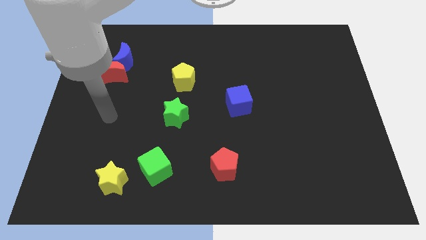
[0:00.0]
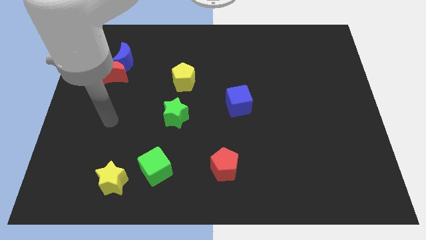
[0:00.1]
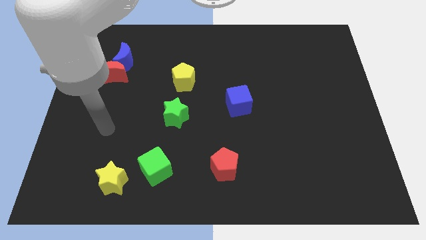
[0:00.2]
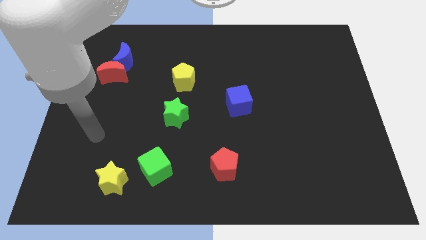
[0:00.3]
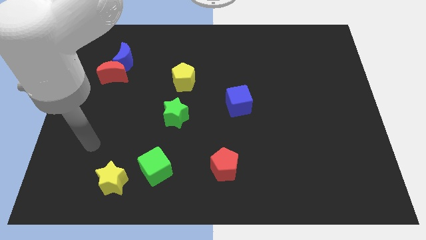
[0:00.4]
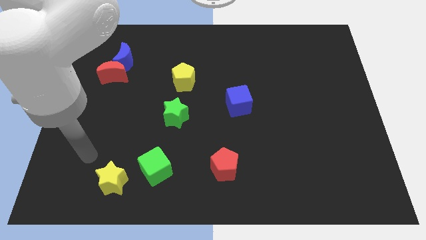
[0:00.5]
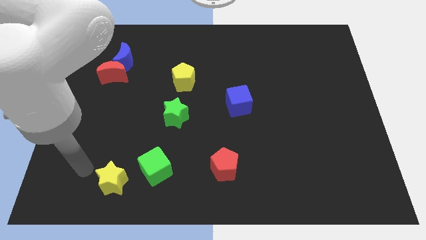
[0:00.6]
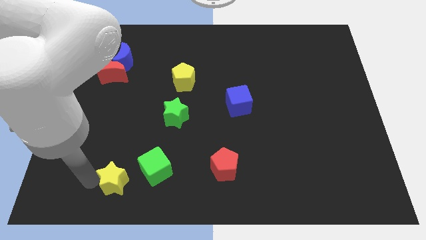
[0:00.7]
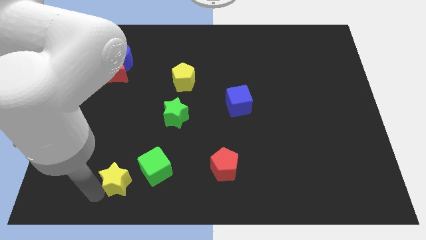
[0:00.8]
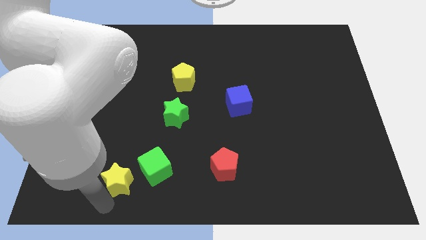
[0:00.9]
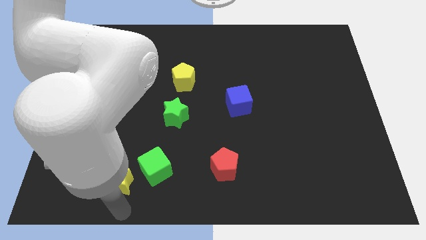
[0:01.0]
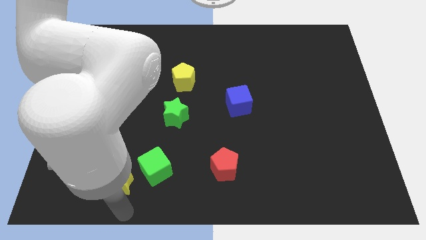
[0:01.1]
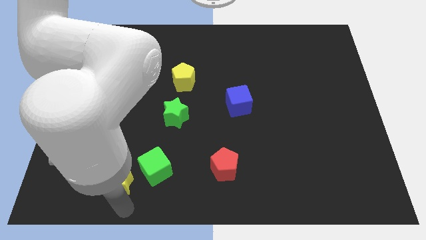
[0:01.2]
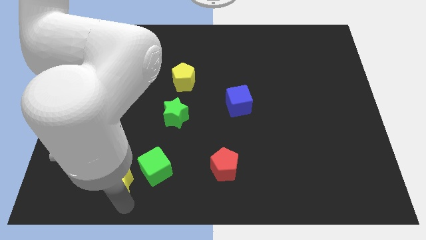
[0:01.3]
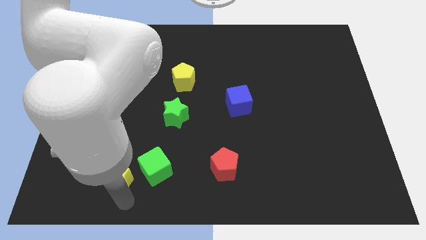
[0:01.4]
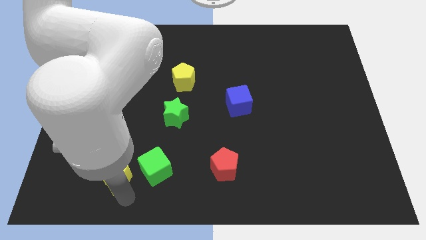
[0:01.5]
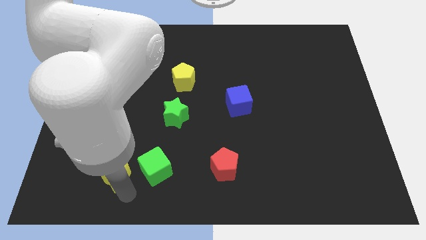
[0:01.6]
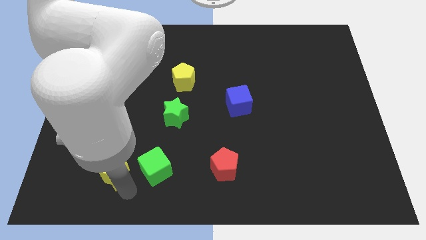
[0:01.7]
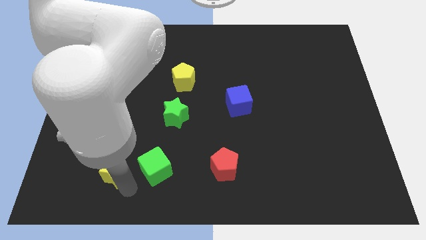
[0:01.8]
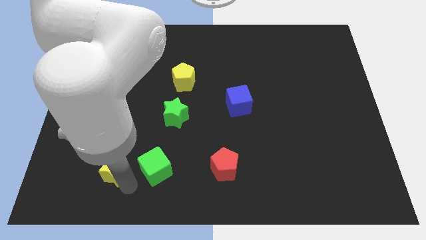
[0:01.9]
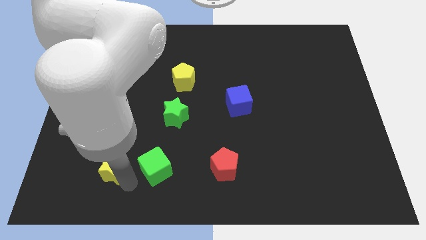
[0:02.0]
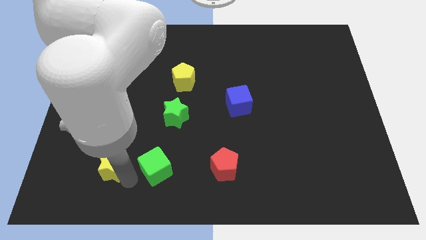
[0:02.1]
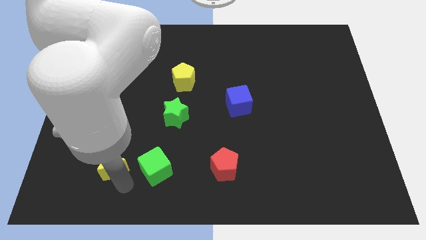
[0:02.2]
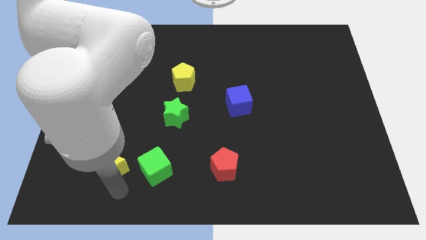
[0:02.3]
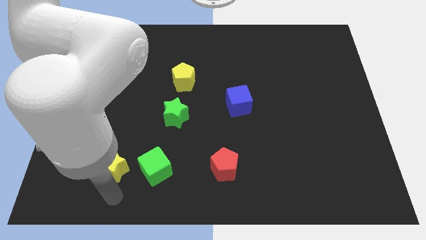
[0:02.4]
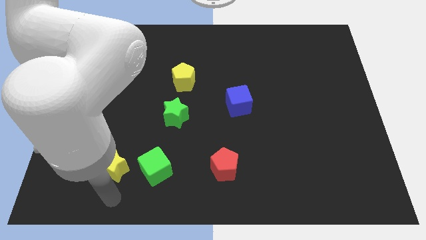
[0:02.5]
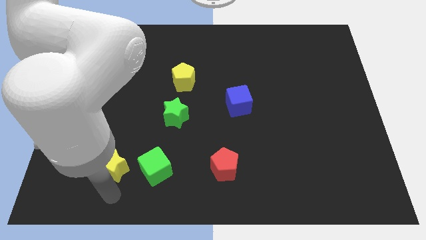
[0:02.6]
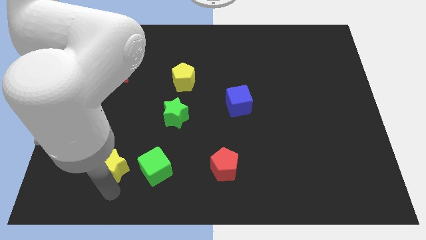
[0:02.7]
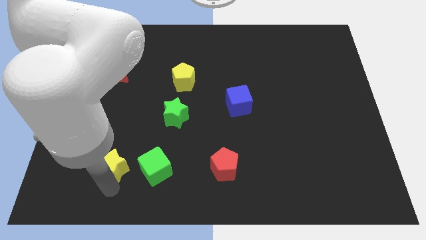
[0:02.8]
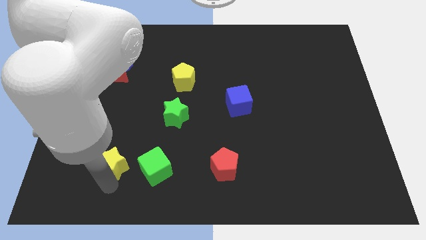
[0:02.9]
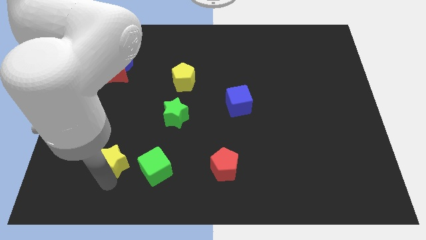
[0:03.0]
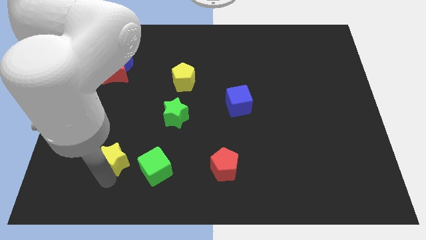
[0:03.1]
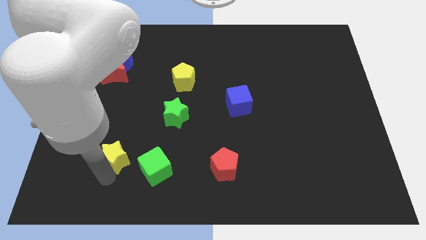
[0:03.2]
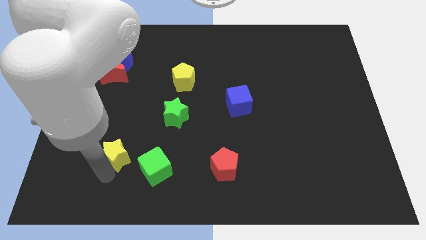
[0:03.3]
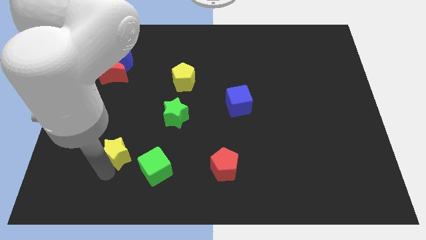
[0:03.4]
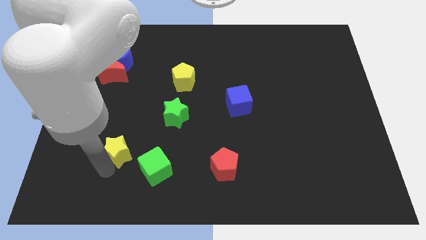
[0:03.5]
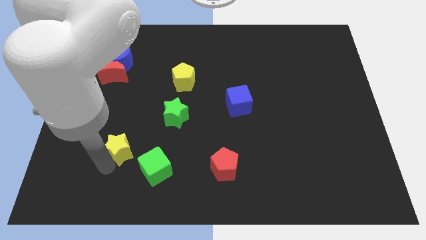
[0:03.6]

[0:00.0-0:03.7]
slightly move the yellow star up

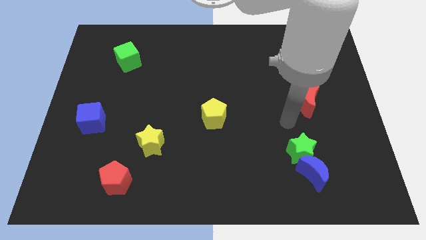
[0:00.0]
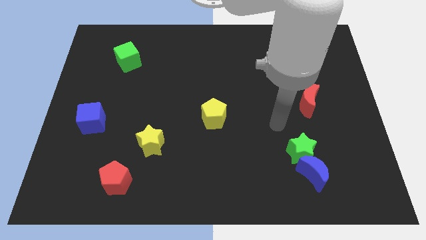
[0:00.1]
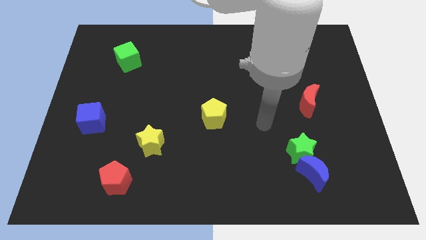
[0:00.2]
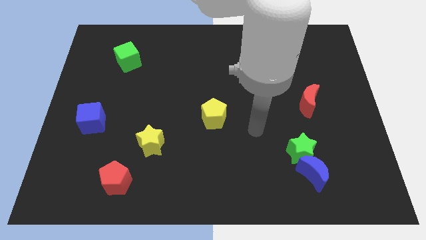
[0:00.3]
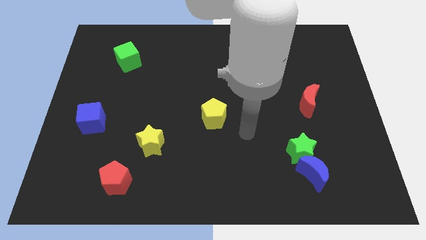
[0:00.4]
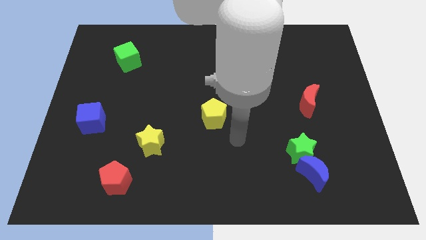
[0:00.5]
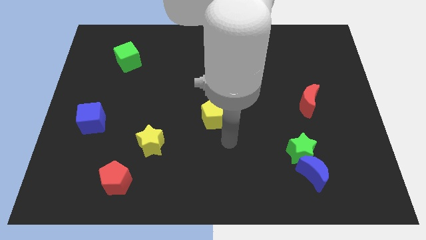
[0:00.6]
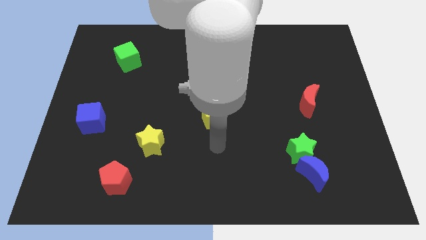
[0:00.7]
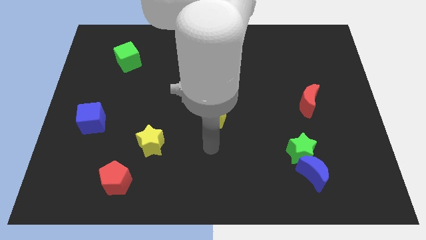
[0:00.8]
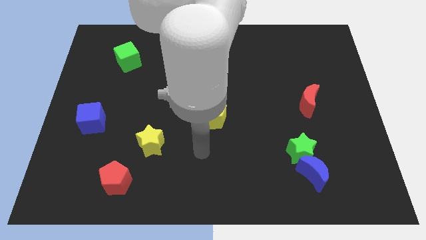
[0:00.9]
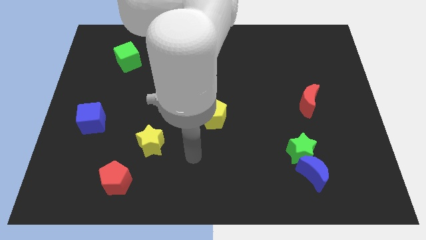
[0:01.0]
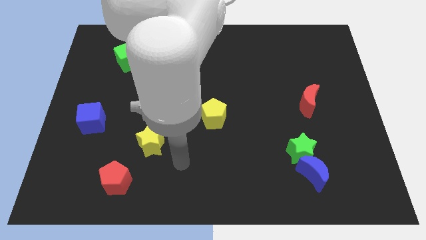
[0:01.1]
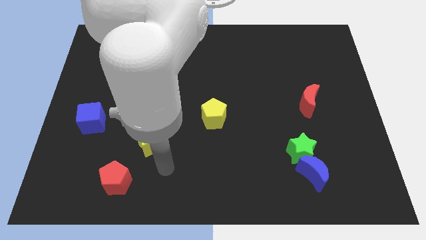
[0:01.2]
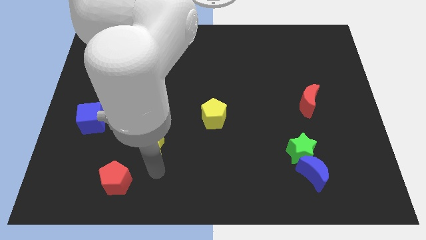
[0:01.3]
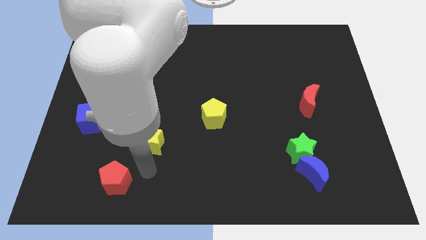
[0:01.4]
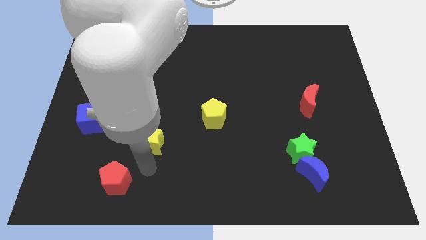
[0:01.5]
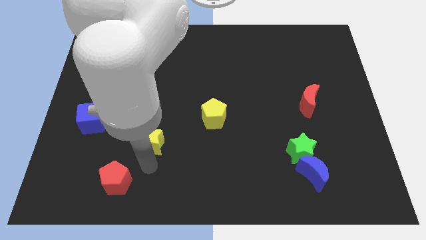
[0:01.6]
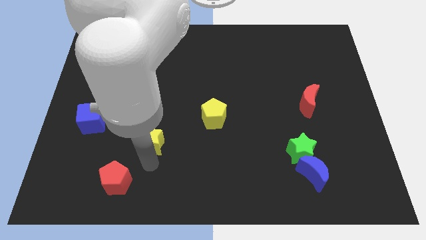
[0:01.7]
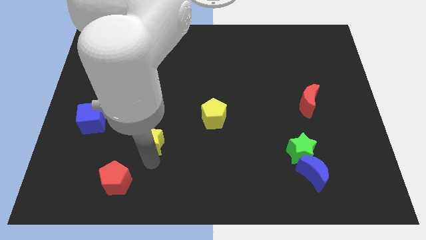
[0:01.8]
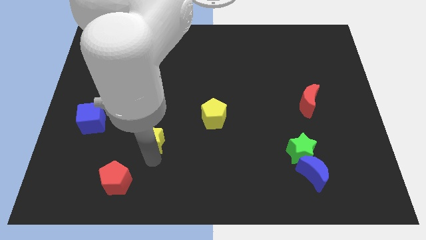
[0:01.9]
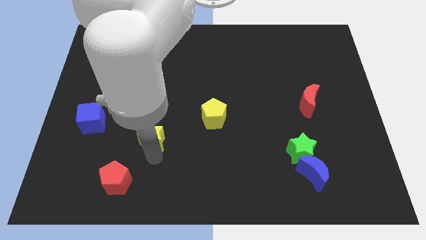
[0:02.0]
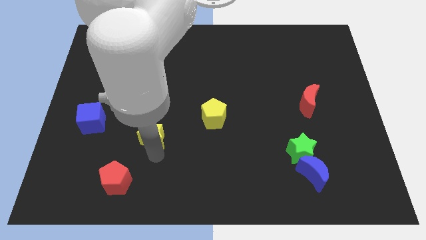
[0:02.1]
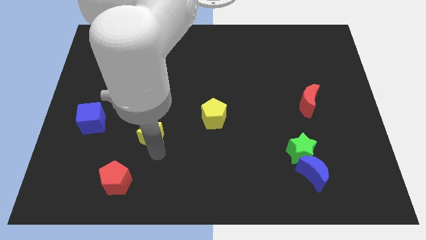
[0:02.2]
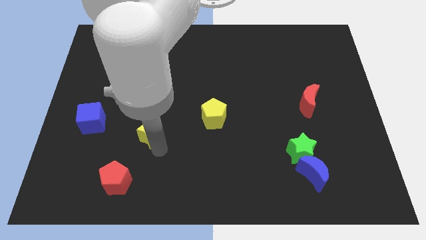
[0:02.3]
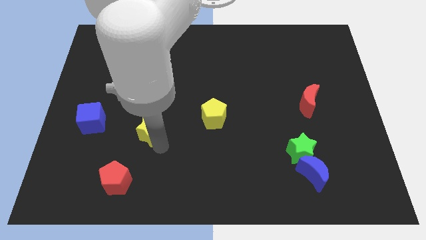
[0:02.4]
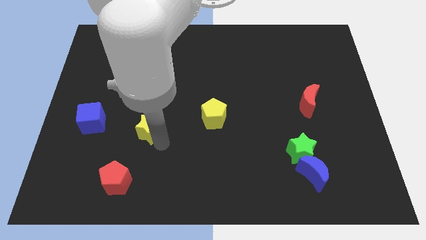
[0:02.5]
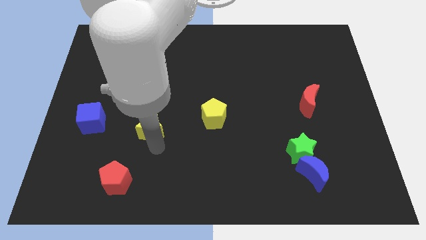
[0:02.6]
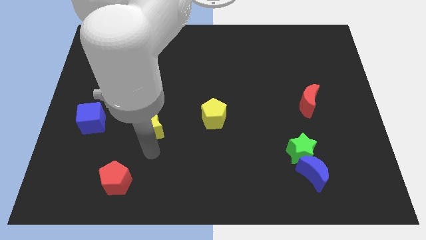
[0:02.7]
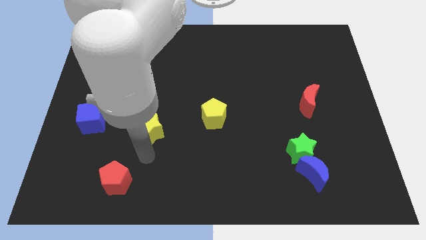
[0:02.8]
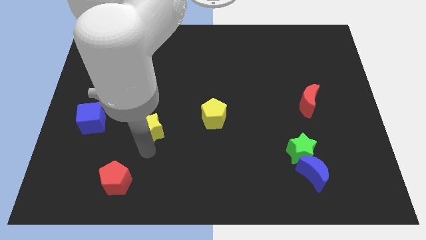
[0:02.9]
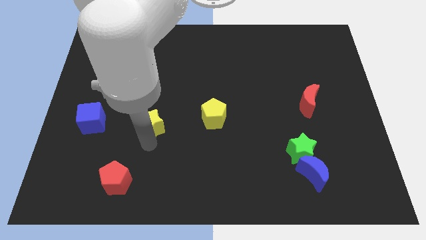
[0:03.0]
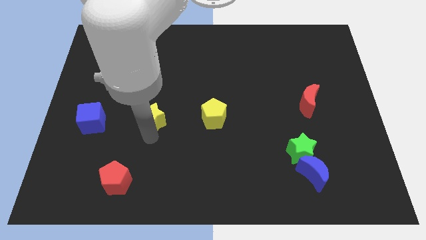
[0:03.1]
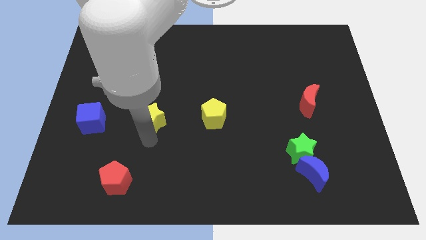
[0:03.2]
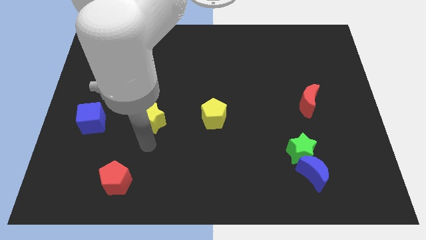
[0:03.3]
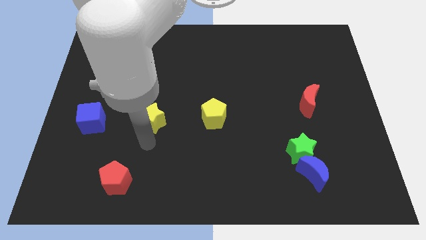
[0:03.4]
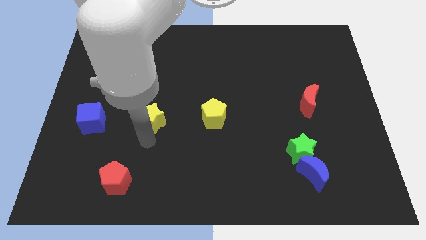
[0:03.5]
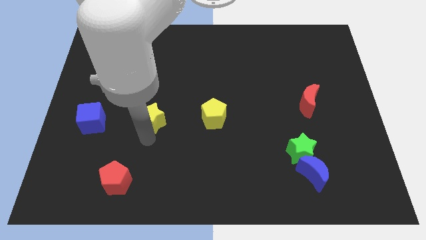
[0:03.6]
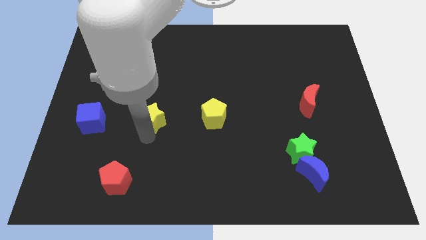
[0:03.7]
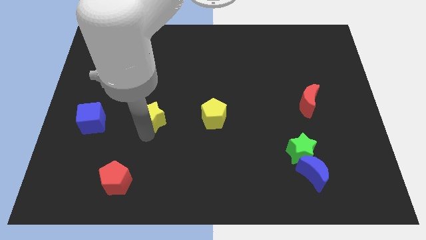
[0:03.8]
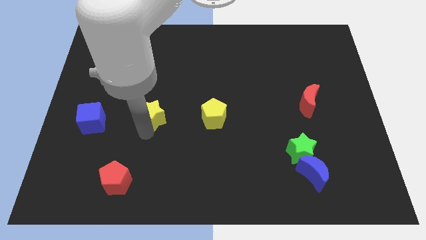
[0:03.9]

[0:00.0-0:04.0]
push the yellow star a little bit up

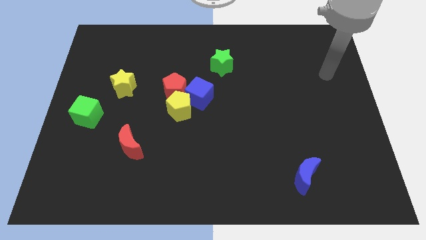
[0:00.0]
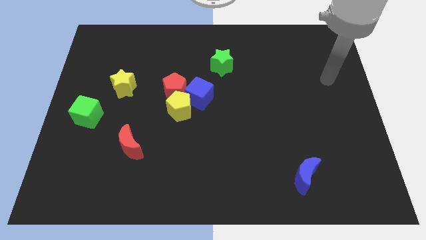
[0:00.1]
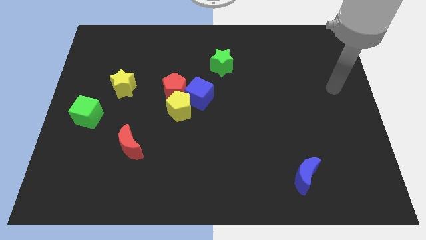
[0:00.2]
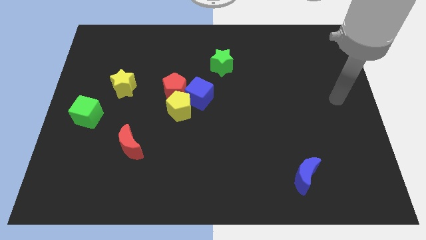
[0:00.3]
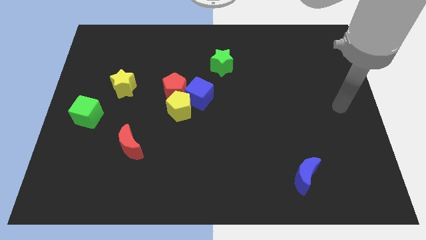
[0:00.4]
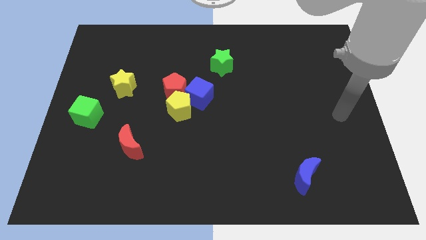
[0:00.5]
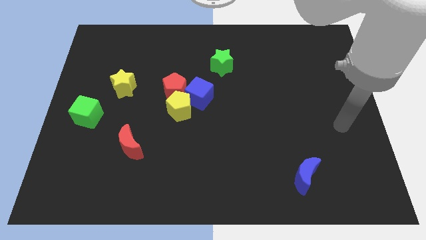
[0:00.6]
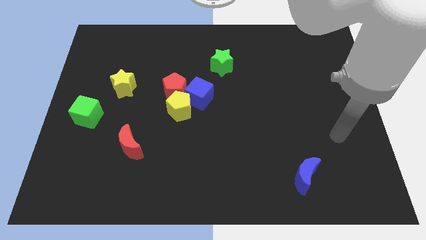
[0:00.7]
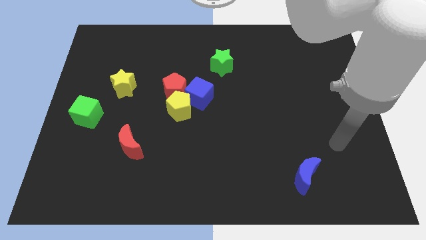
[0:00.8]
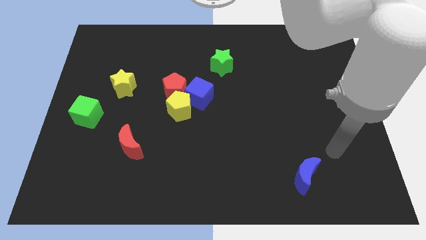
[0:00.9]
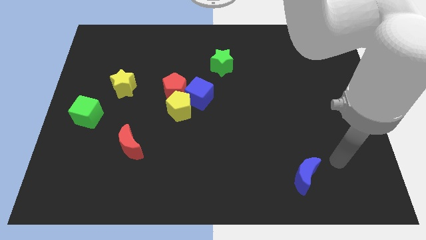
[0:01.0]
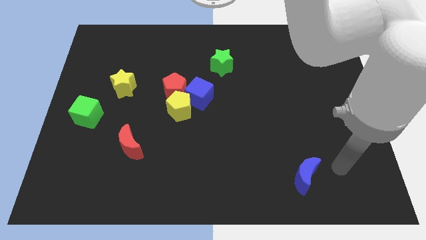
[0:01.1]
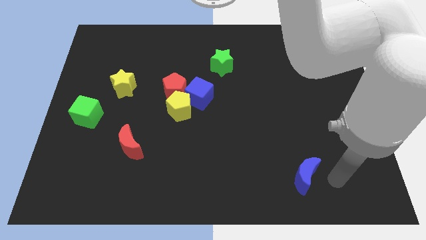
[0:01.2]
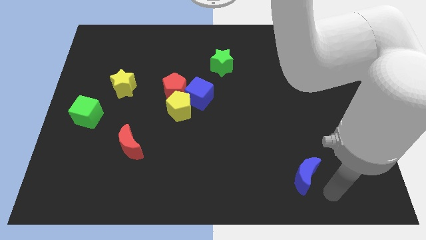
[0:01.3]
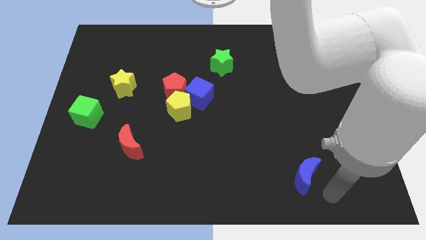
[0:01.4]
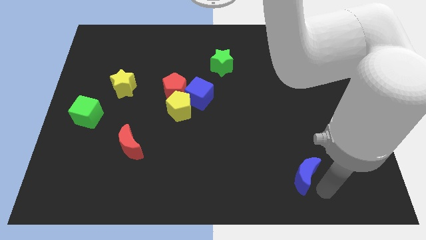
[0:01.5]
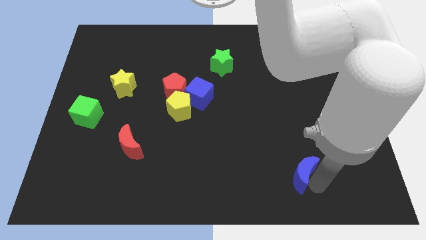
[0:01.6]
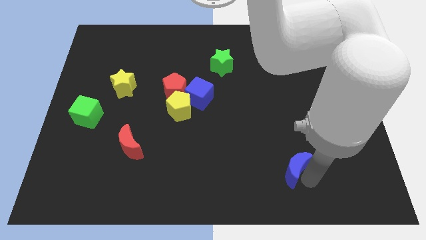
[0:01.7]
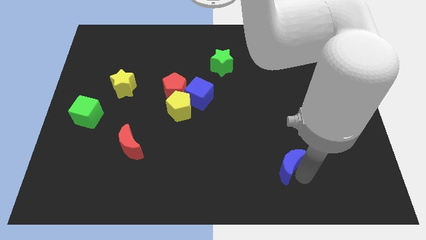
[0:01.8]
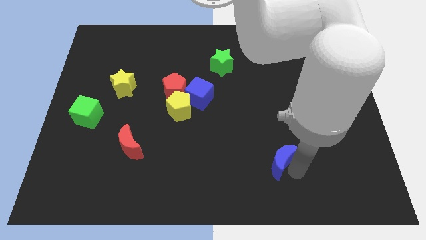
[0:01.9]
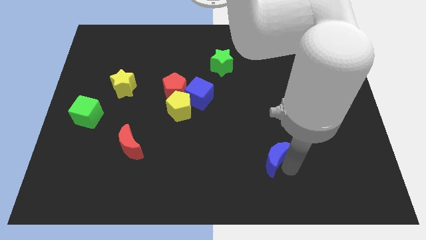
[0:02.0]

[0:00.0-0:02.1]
move the blue moon upwards and to the left diagonally a little
